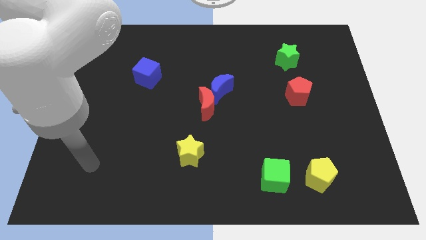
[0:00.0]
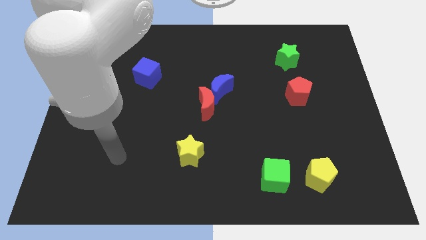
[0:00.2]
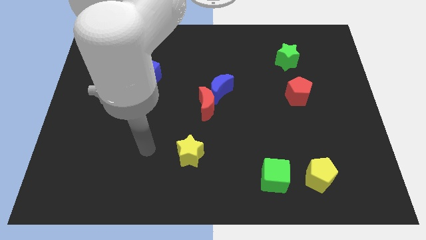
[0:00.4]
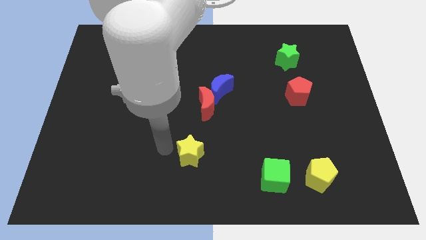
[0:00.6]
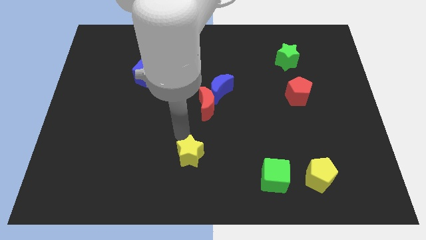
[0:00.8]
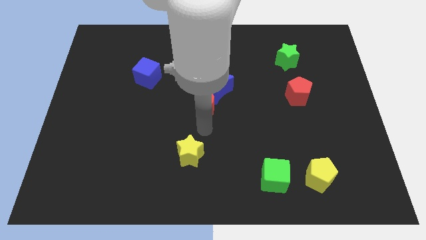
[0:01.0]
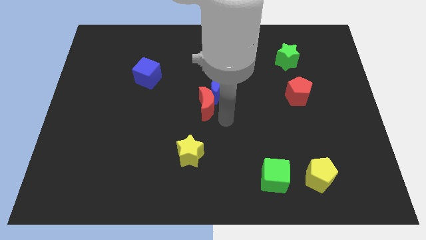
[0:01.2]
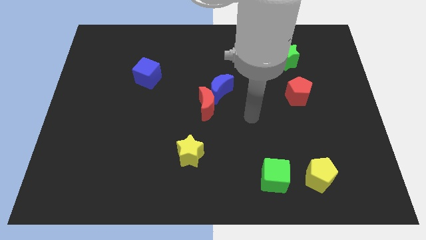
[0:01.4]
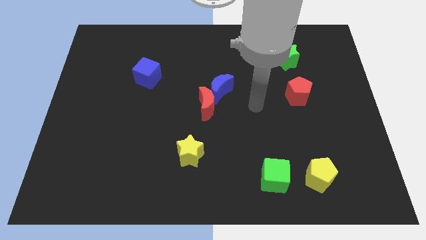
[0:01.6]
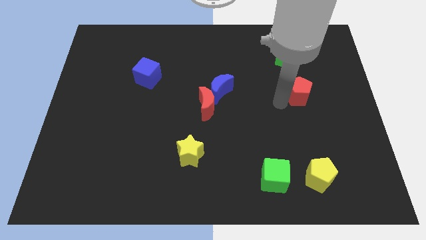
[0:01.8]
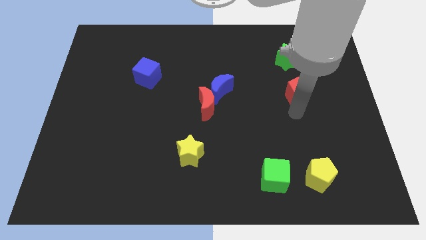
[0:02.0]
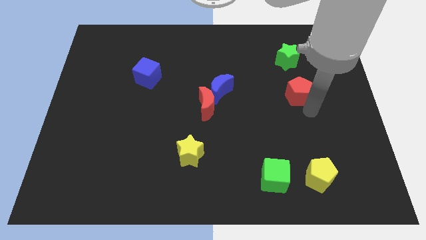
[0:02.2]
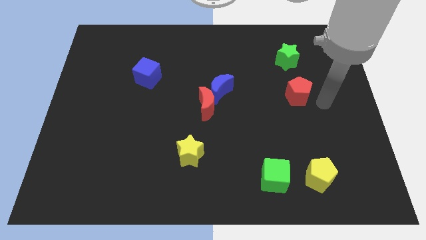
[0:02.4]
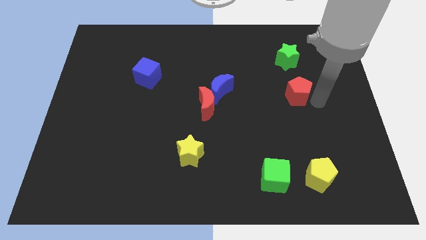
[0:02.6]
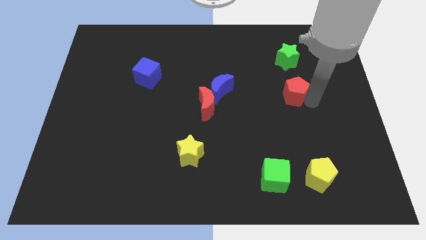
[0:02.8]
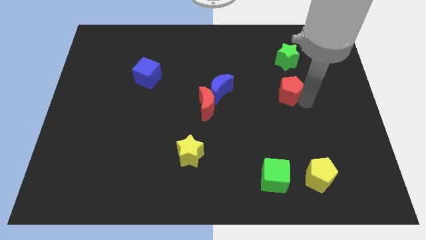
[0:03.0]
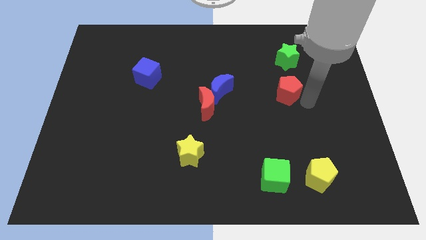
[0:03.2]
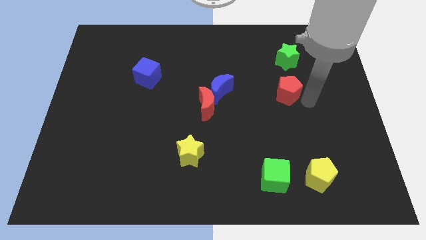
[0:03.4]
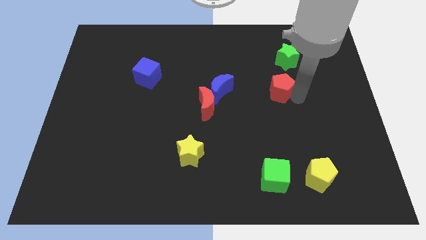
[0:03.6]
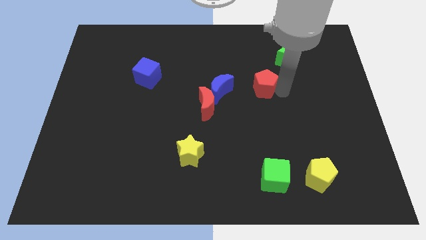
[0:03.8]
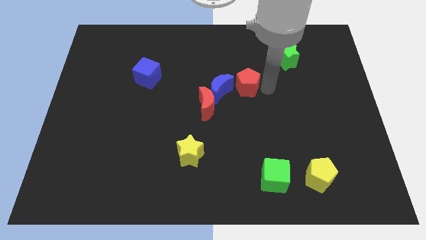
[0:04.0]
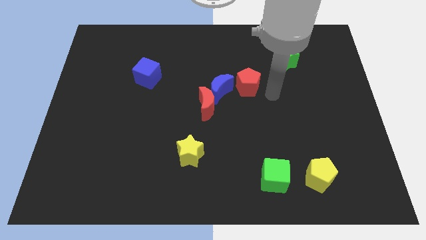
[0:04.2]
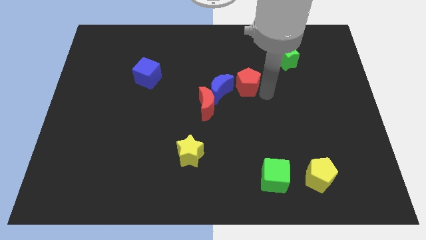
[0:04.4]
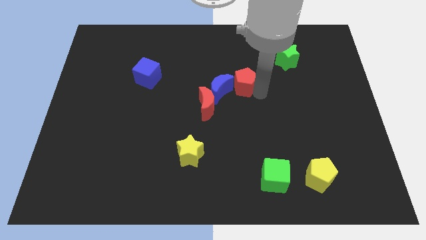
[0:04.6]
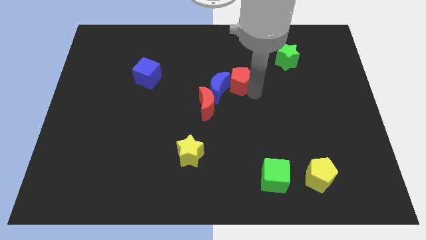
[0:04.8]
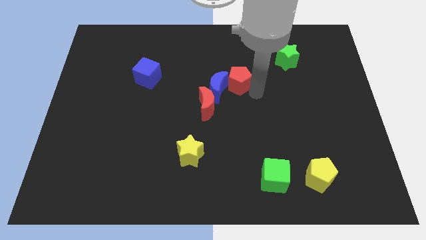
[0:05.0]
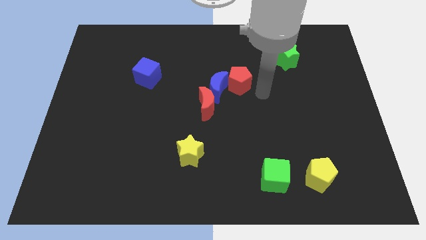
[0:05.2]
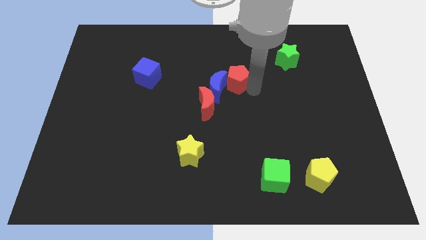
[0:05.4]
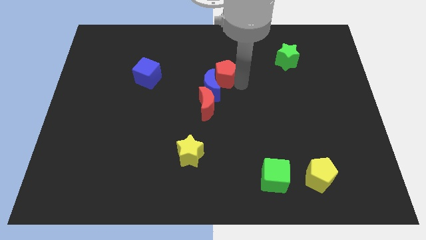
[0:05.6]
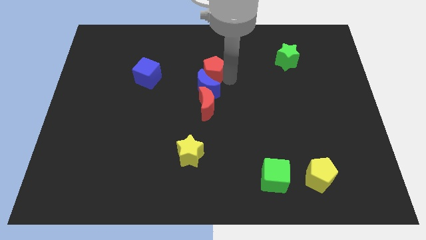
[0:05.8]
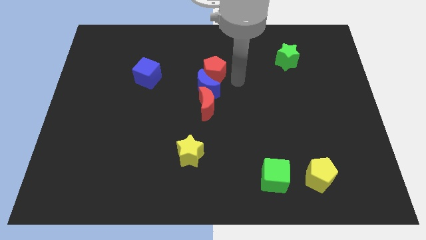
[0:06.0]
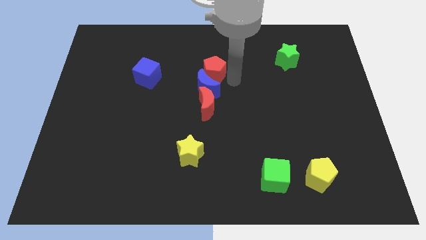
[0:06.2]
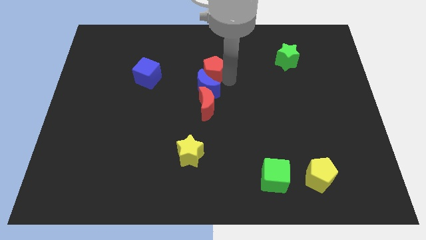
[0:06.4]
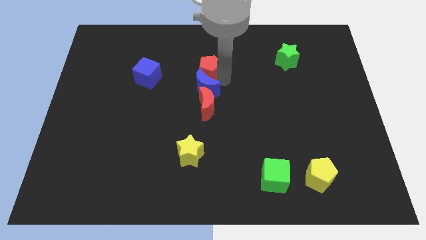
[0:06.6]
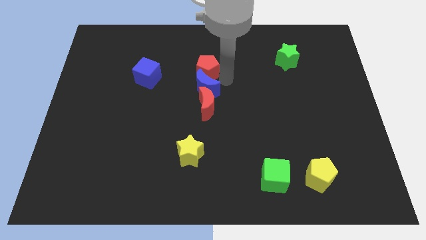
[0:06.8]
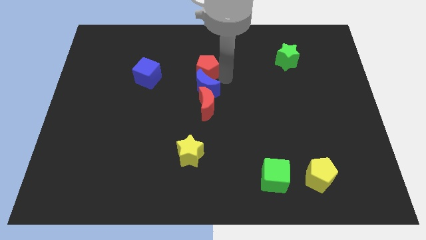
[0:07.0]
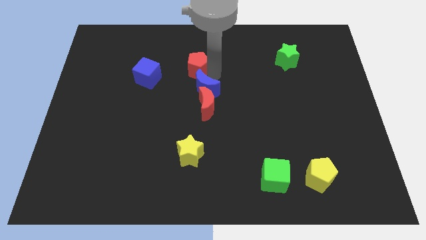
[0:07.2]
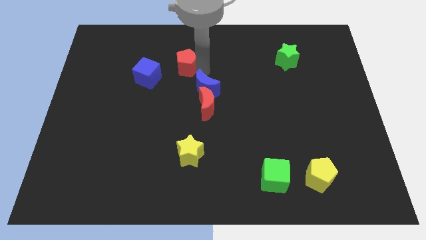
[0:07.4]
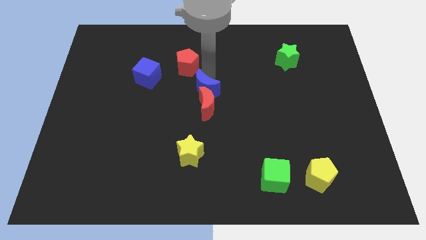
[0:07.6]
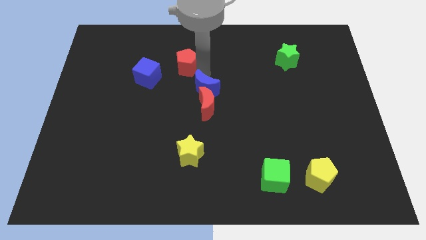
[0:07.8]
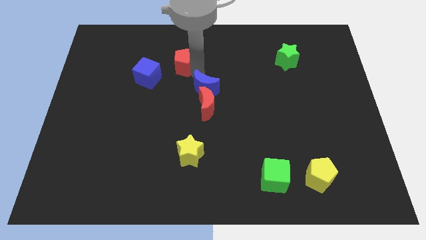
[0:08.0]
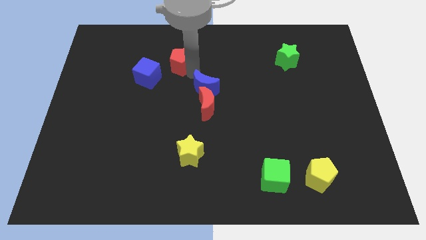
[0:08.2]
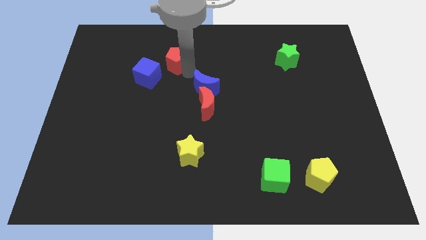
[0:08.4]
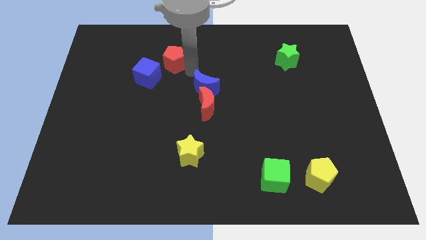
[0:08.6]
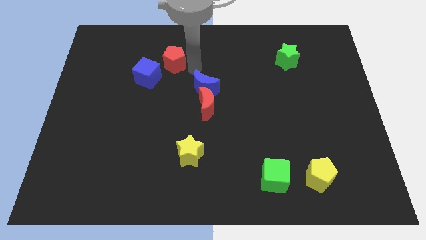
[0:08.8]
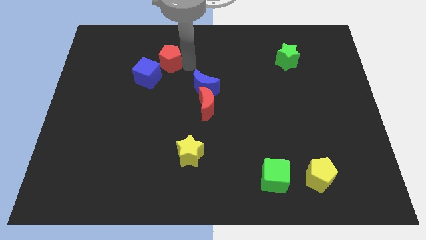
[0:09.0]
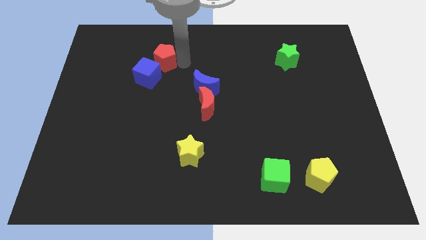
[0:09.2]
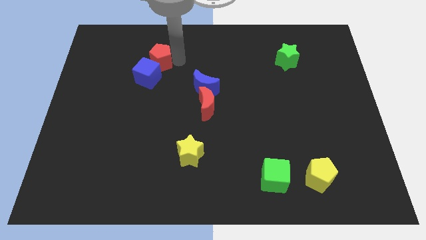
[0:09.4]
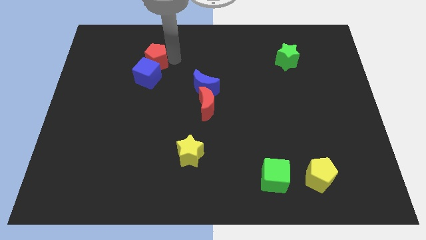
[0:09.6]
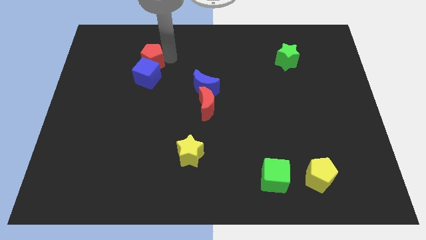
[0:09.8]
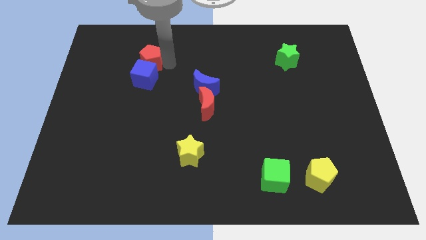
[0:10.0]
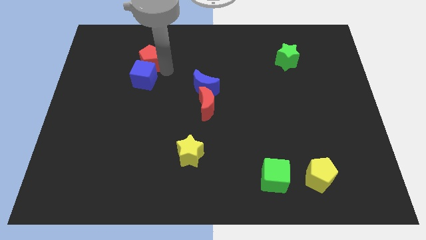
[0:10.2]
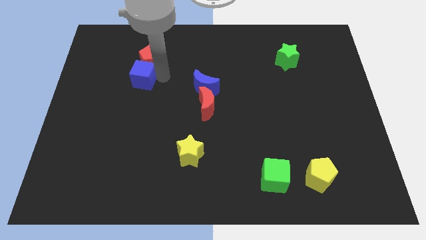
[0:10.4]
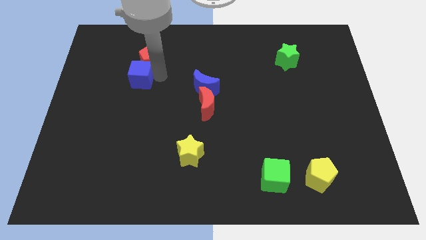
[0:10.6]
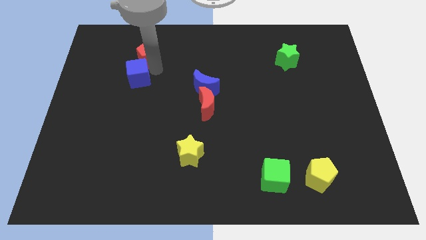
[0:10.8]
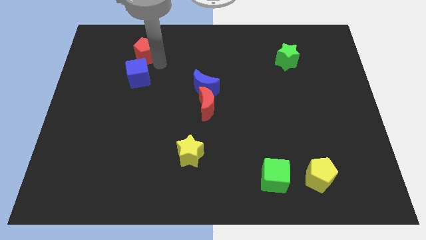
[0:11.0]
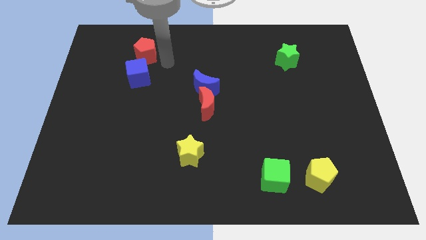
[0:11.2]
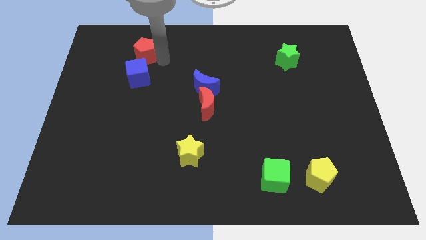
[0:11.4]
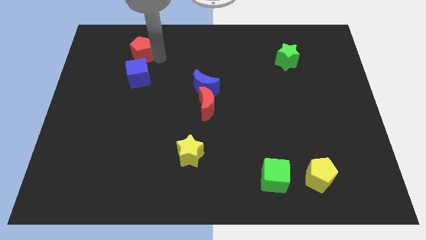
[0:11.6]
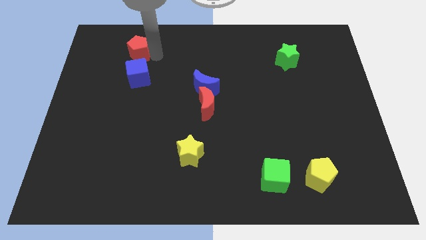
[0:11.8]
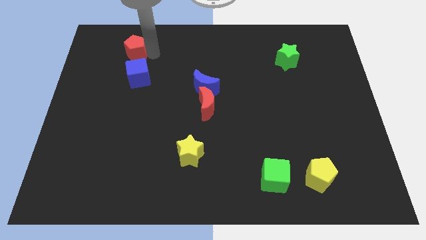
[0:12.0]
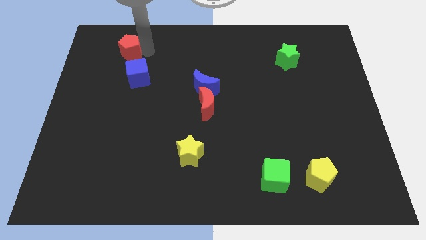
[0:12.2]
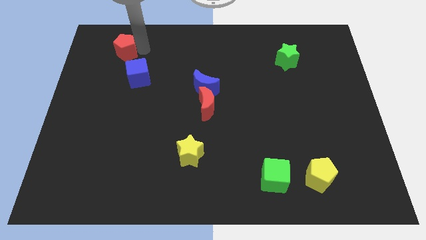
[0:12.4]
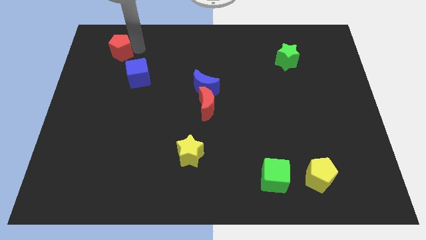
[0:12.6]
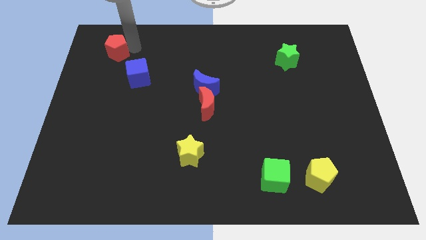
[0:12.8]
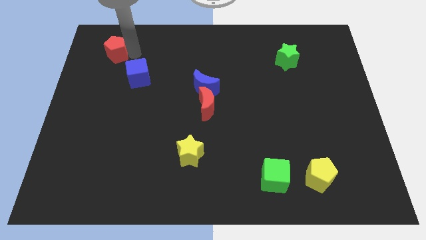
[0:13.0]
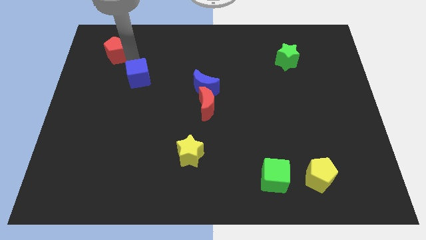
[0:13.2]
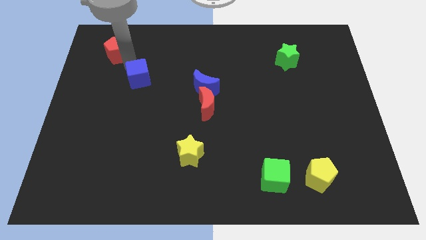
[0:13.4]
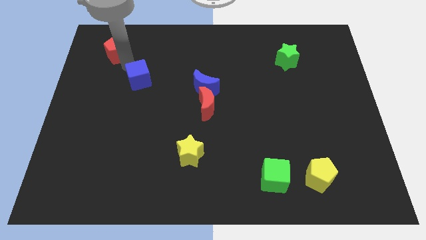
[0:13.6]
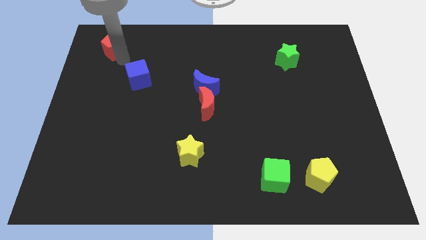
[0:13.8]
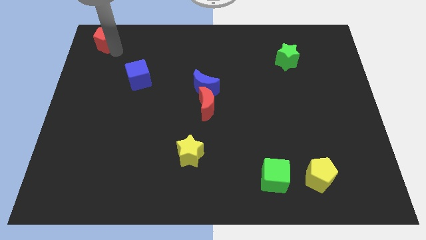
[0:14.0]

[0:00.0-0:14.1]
push the red pentagon to the top left corner

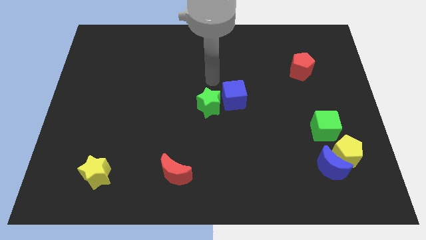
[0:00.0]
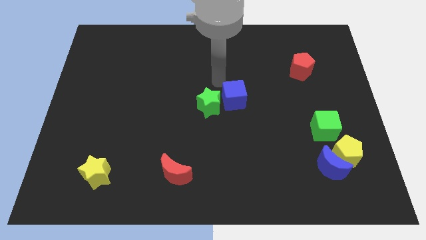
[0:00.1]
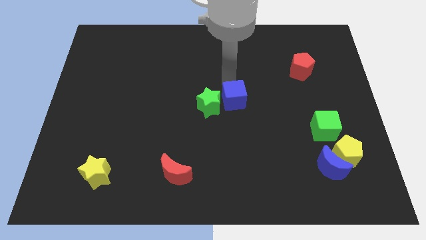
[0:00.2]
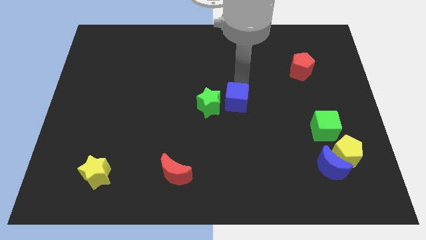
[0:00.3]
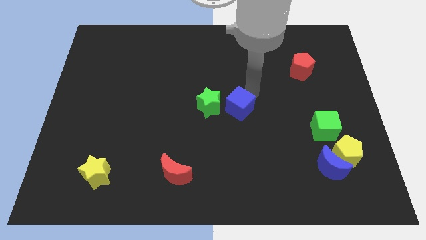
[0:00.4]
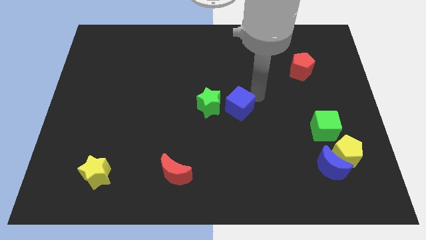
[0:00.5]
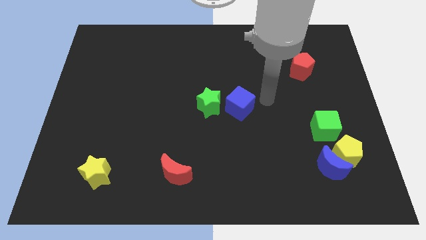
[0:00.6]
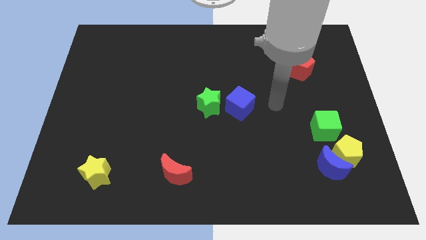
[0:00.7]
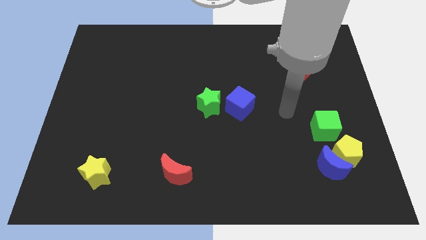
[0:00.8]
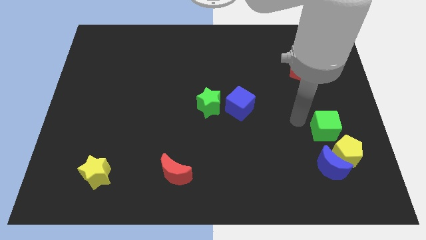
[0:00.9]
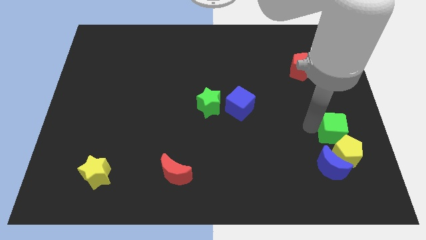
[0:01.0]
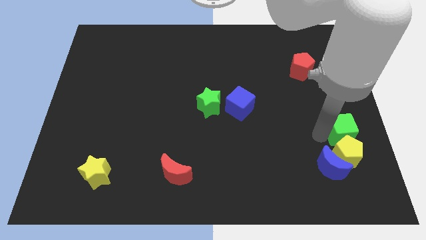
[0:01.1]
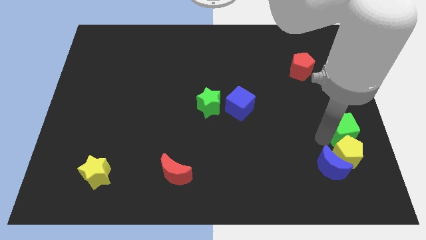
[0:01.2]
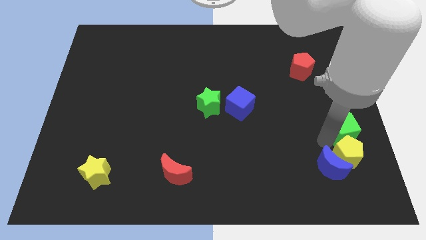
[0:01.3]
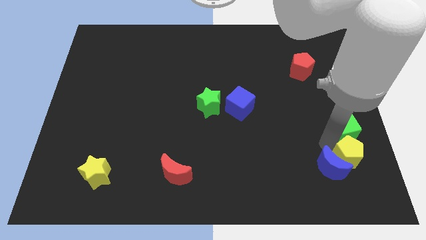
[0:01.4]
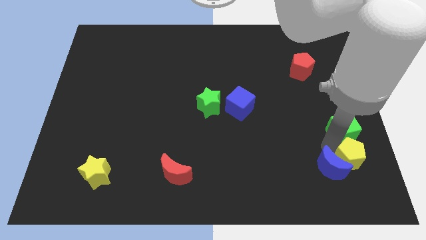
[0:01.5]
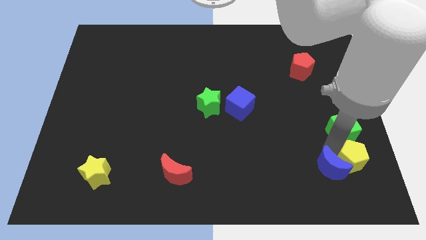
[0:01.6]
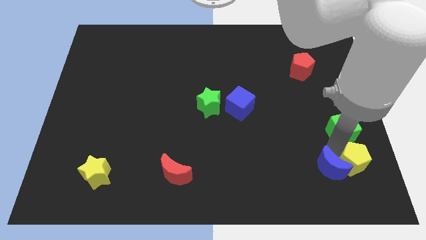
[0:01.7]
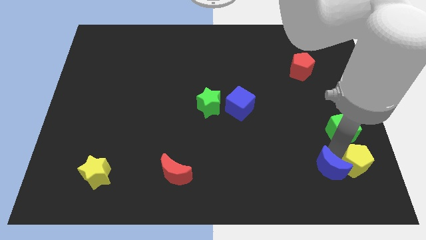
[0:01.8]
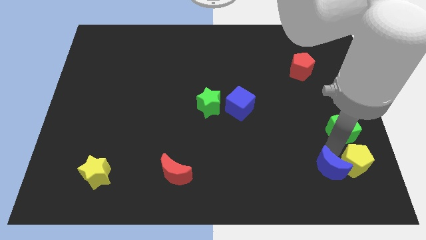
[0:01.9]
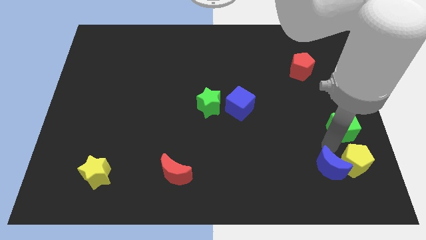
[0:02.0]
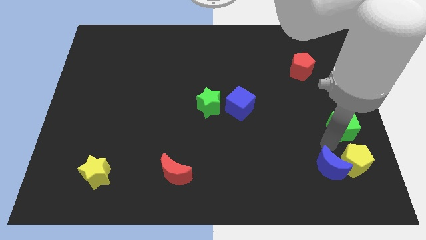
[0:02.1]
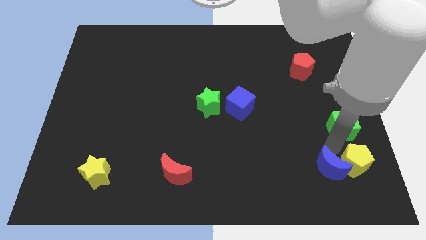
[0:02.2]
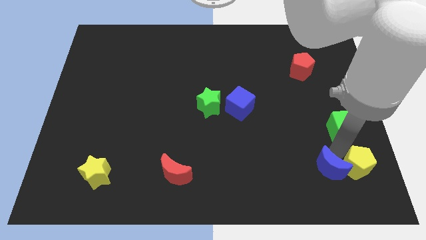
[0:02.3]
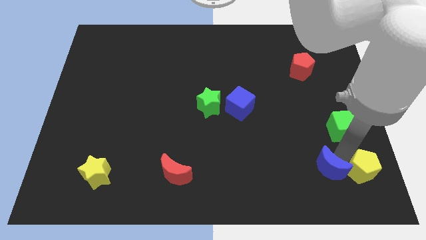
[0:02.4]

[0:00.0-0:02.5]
move the yellow pentagon to the bottom right of the board
